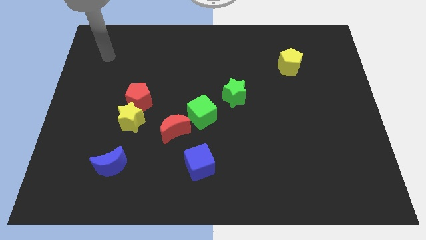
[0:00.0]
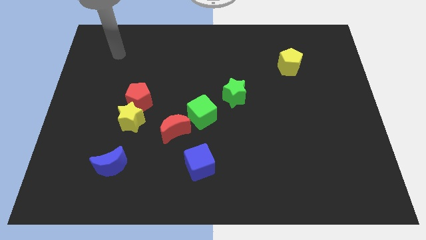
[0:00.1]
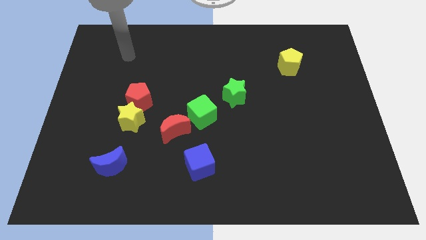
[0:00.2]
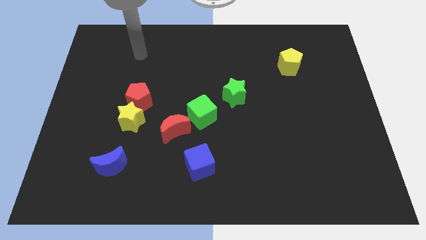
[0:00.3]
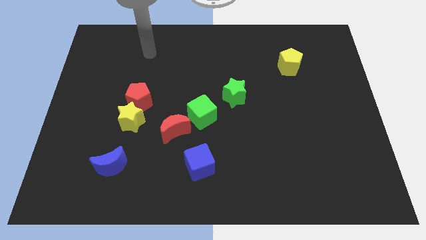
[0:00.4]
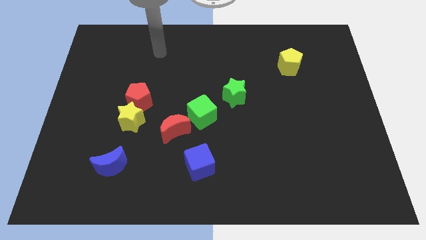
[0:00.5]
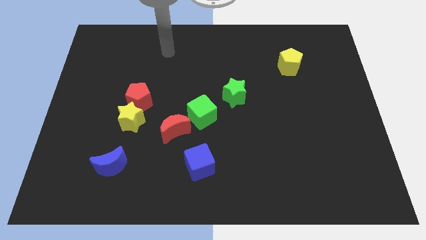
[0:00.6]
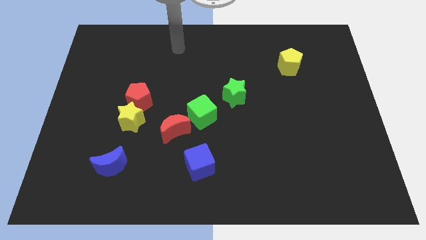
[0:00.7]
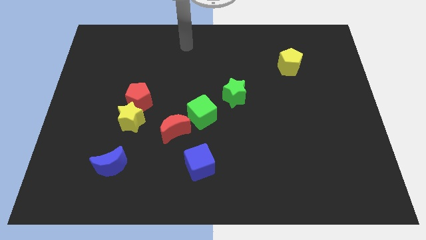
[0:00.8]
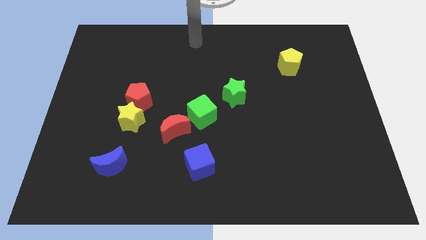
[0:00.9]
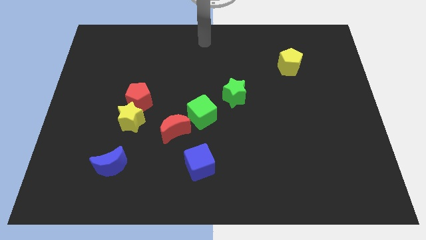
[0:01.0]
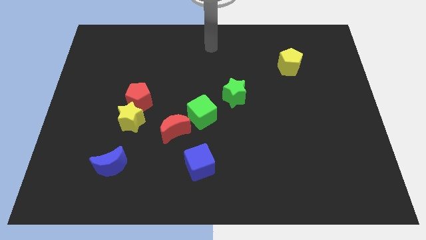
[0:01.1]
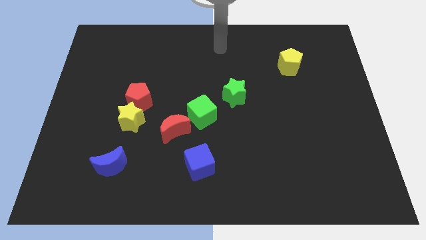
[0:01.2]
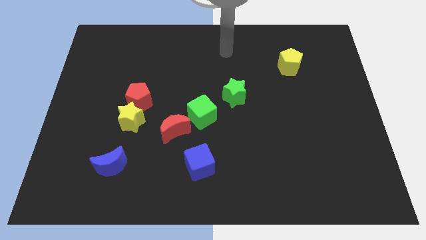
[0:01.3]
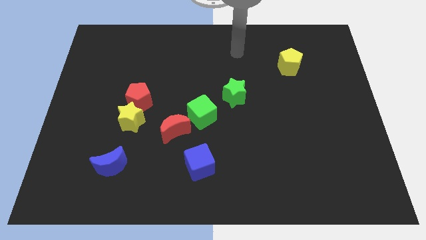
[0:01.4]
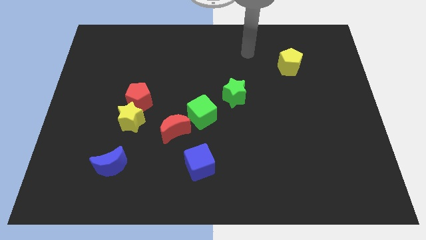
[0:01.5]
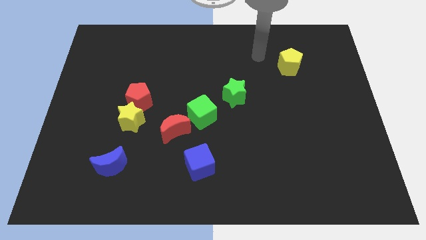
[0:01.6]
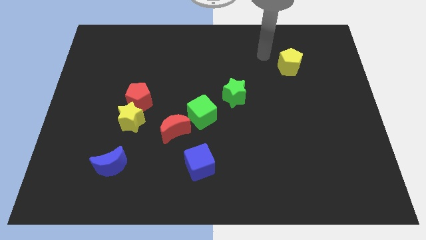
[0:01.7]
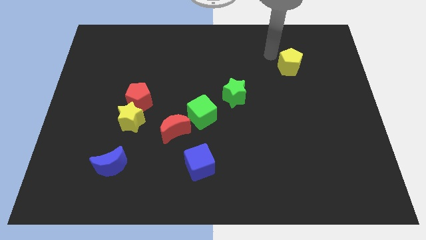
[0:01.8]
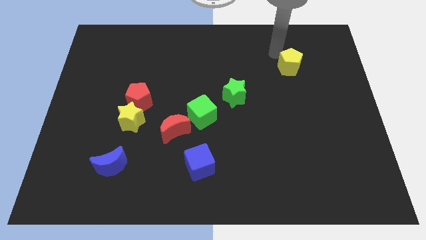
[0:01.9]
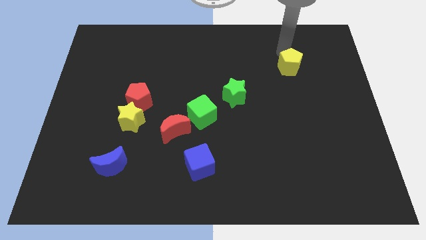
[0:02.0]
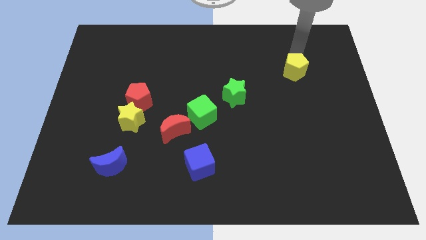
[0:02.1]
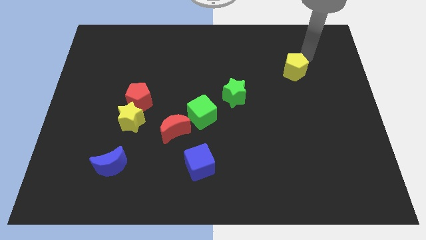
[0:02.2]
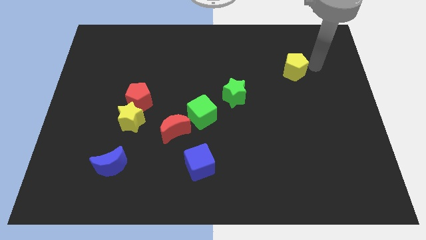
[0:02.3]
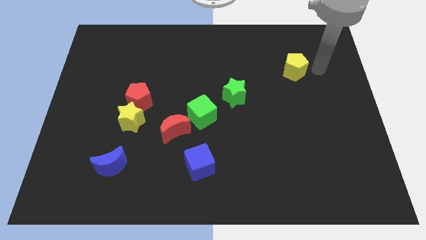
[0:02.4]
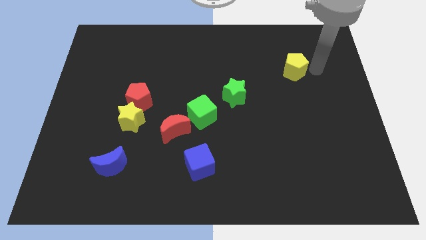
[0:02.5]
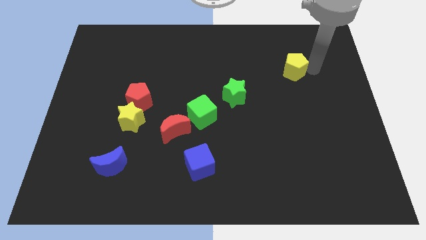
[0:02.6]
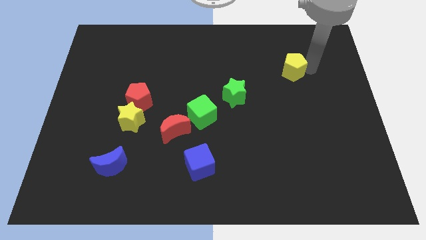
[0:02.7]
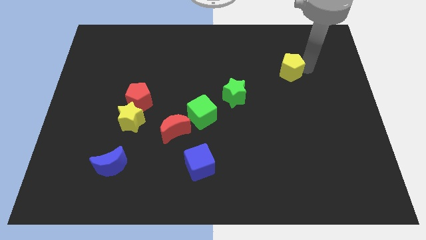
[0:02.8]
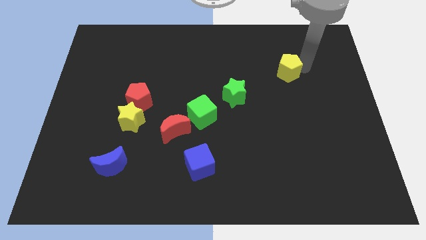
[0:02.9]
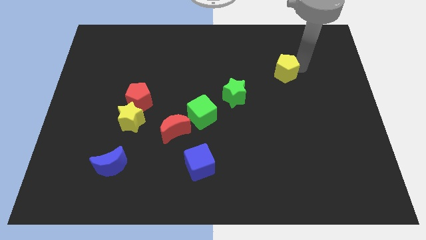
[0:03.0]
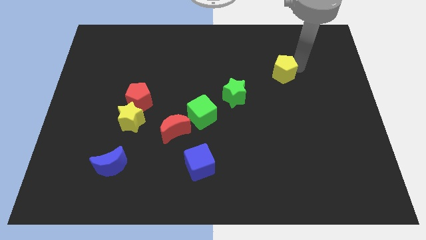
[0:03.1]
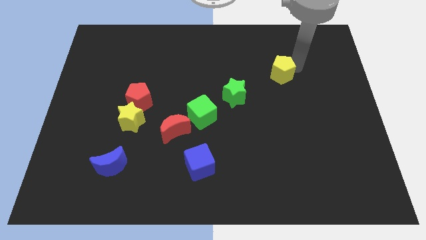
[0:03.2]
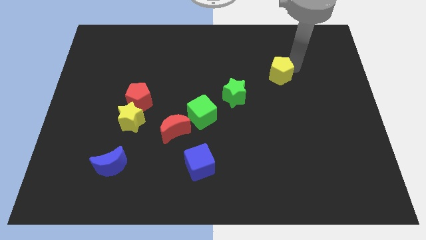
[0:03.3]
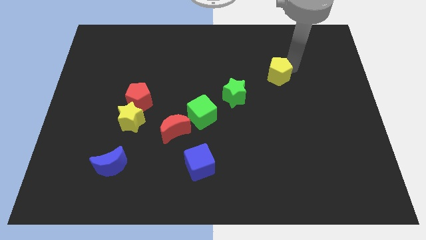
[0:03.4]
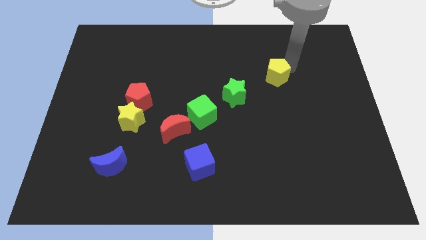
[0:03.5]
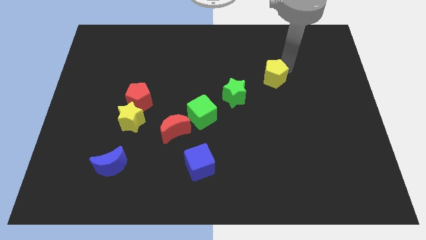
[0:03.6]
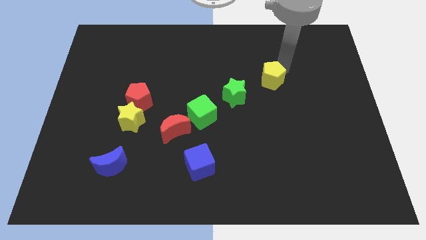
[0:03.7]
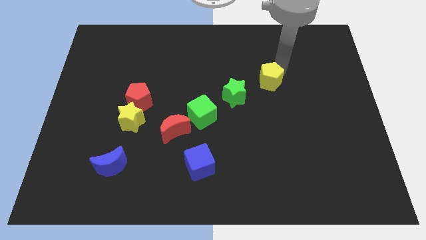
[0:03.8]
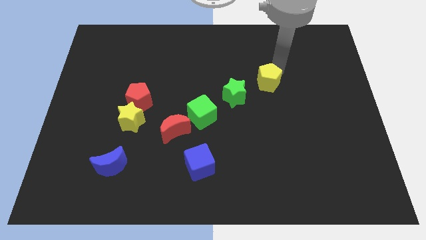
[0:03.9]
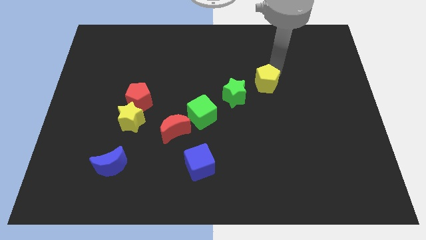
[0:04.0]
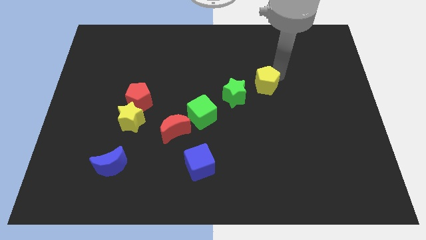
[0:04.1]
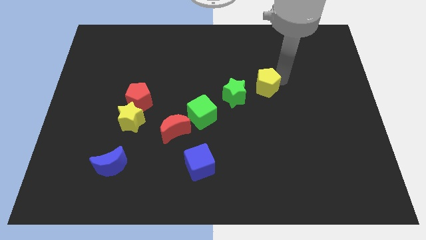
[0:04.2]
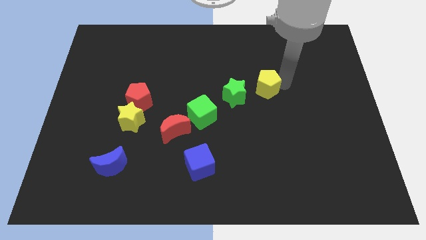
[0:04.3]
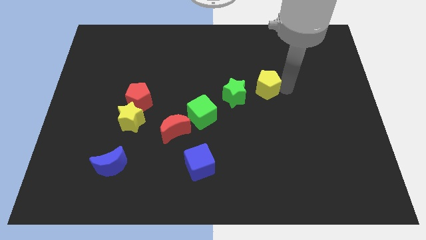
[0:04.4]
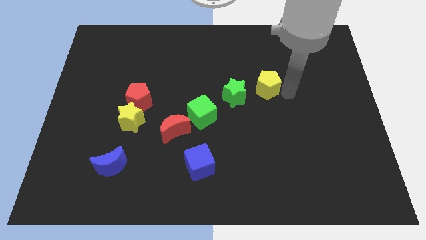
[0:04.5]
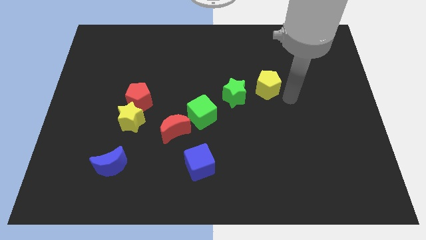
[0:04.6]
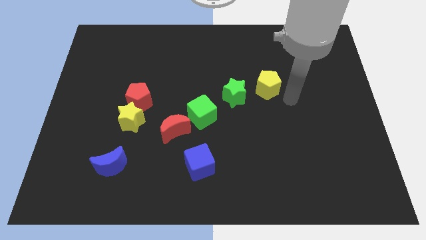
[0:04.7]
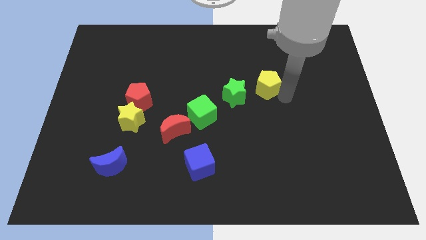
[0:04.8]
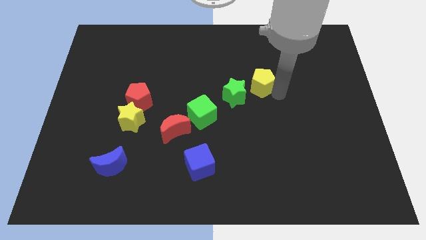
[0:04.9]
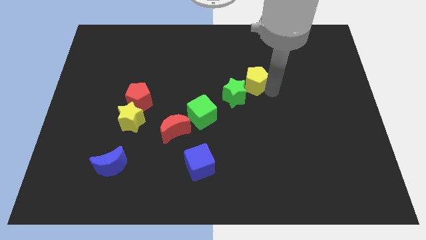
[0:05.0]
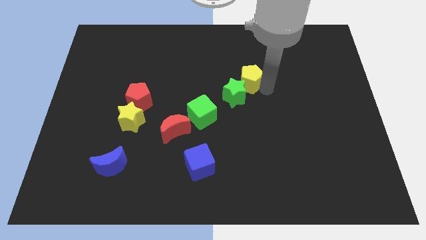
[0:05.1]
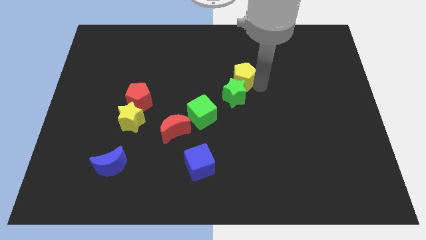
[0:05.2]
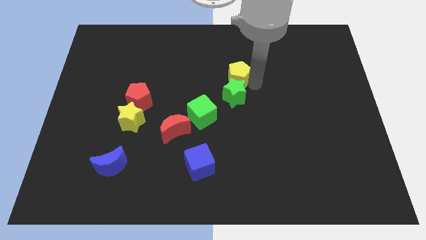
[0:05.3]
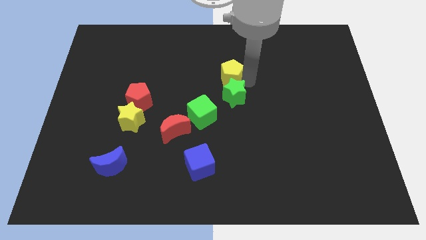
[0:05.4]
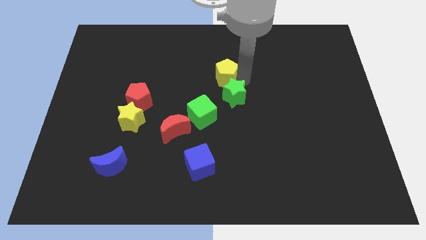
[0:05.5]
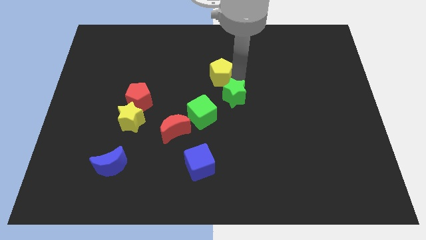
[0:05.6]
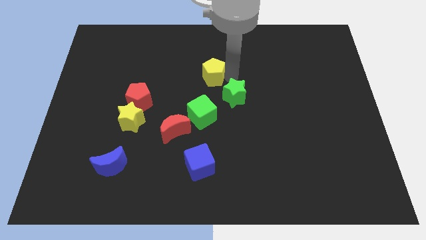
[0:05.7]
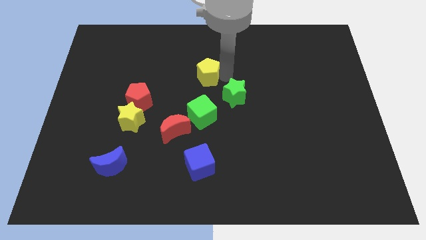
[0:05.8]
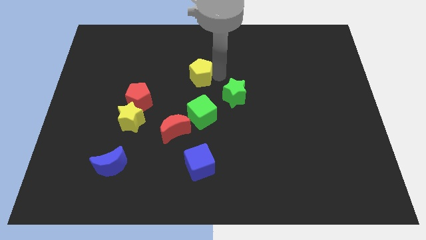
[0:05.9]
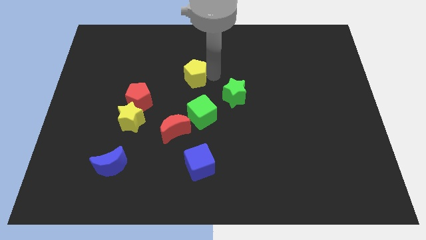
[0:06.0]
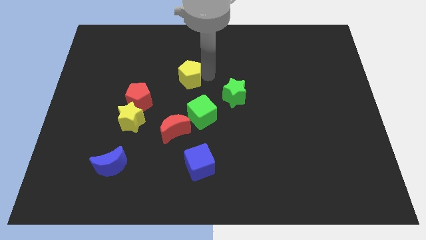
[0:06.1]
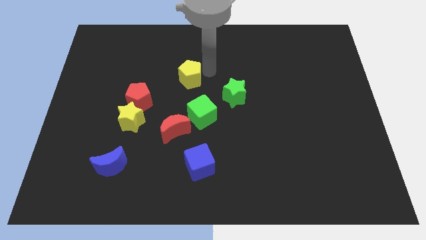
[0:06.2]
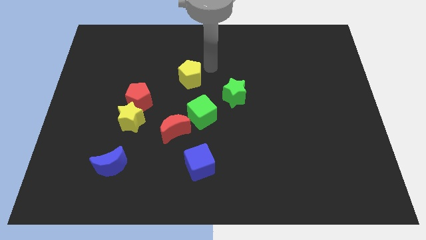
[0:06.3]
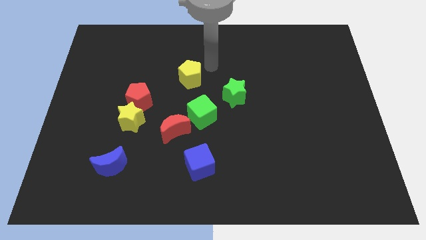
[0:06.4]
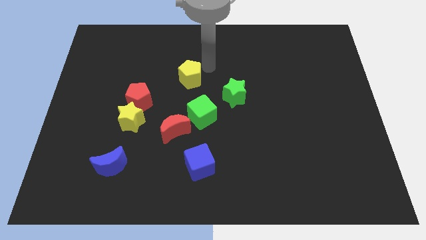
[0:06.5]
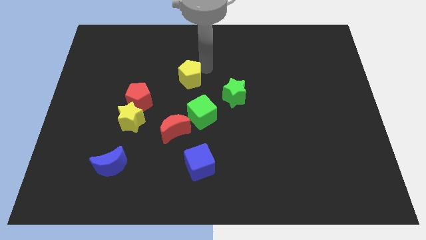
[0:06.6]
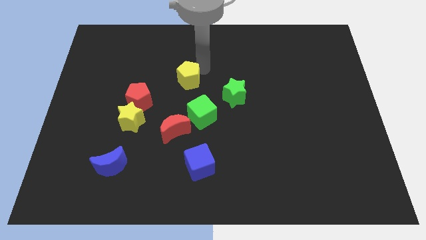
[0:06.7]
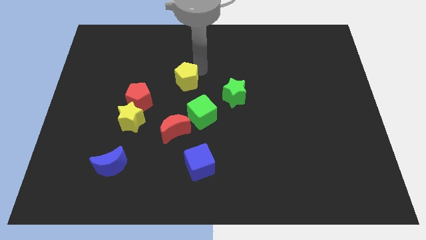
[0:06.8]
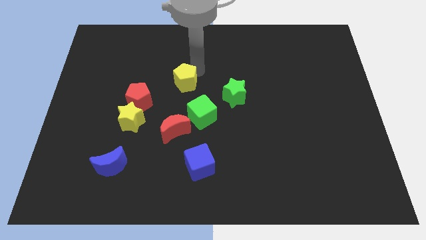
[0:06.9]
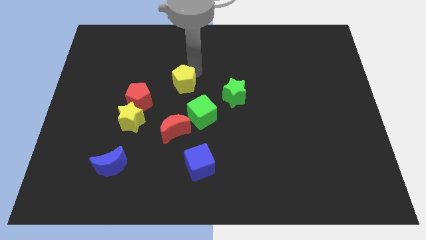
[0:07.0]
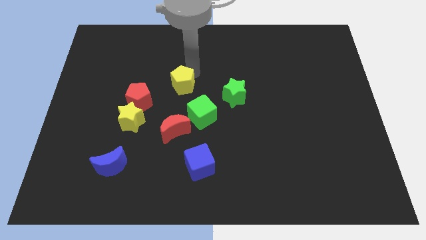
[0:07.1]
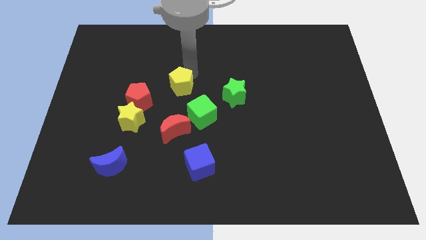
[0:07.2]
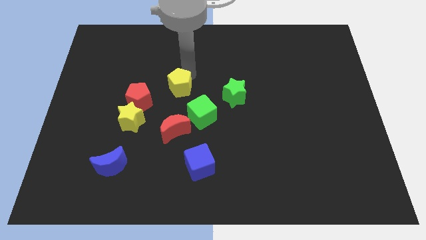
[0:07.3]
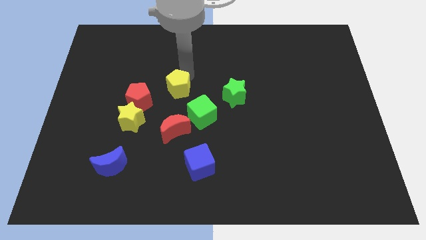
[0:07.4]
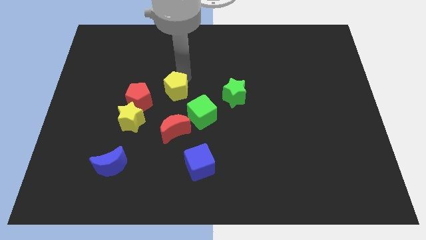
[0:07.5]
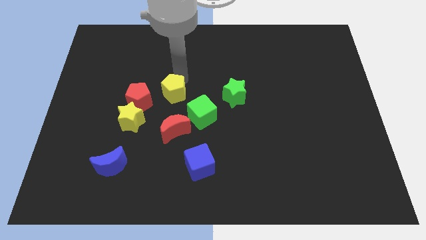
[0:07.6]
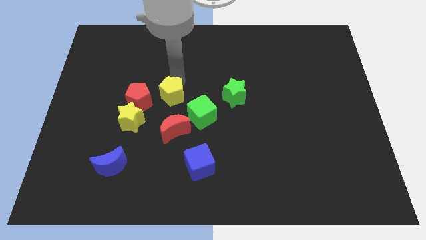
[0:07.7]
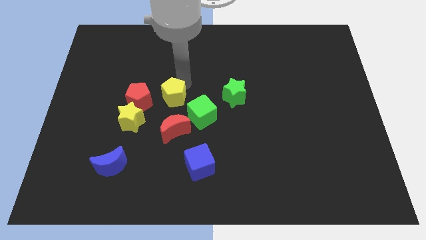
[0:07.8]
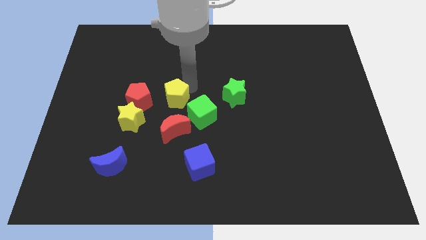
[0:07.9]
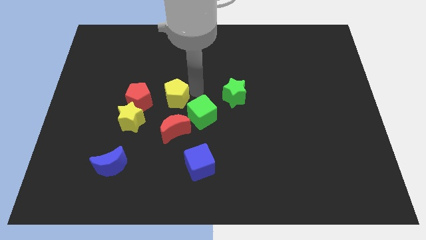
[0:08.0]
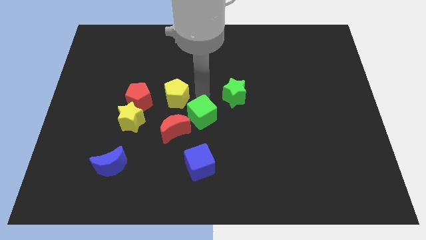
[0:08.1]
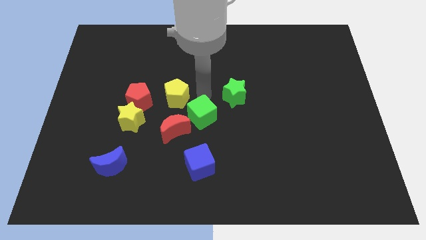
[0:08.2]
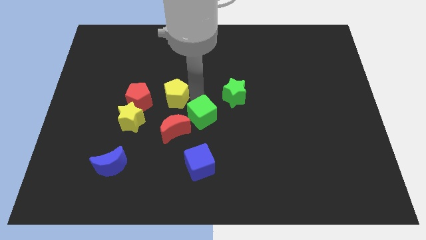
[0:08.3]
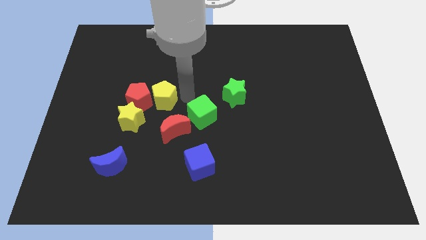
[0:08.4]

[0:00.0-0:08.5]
slide the yellow pentagon close to the red pentagon

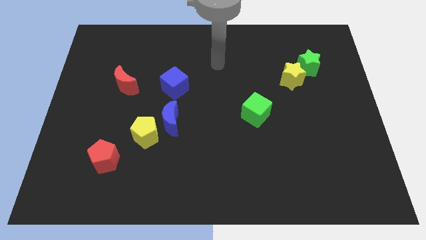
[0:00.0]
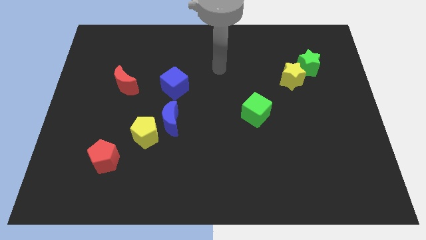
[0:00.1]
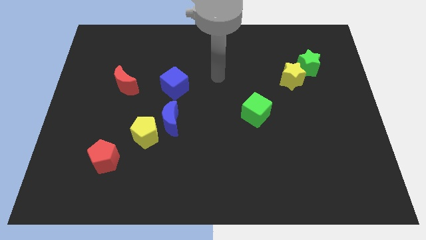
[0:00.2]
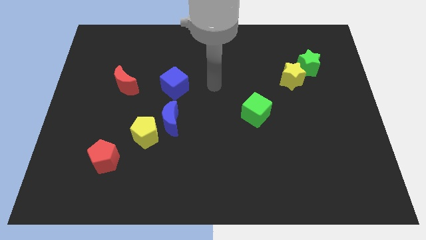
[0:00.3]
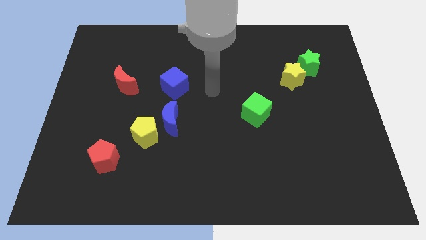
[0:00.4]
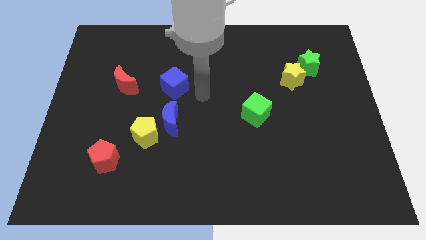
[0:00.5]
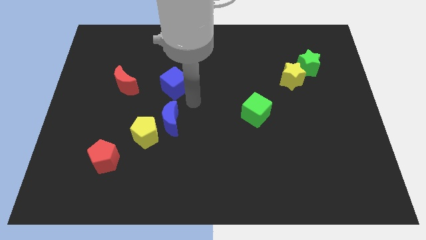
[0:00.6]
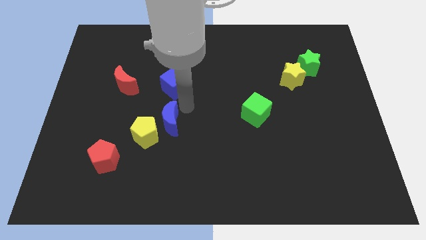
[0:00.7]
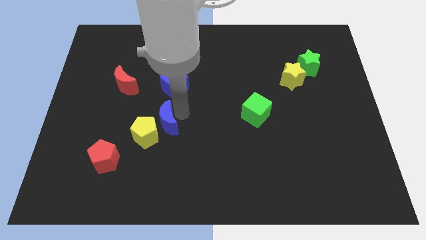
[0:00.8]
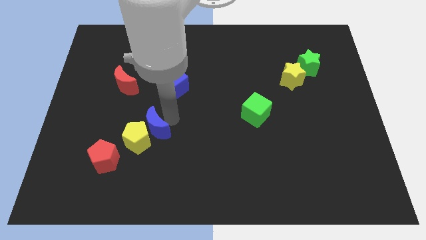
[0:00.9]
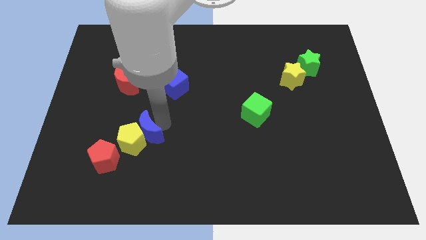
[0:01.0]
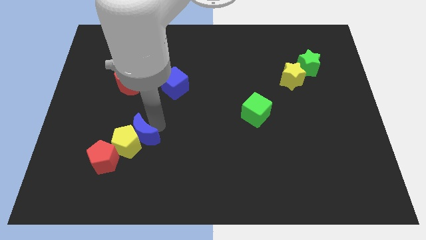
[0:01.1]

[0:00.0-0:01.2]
push the yellow pentagon to the red pentagon
